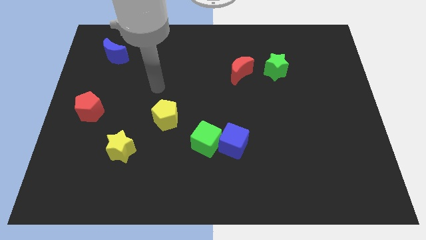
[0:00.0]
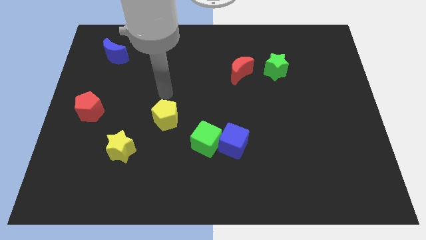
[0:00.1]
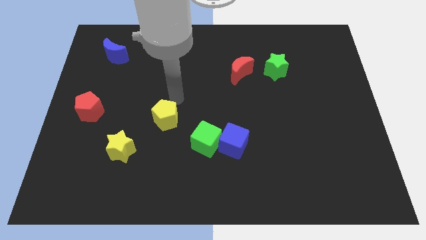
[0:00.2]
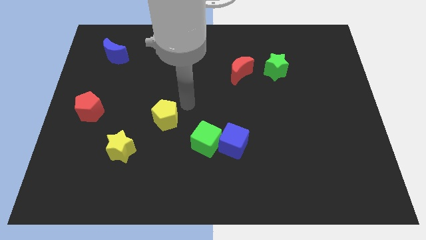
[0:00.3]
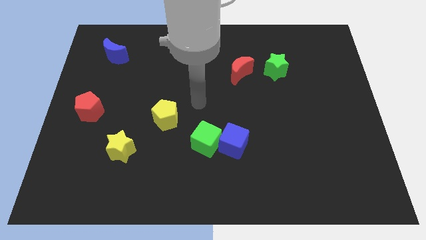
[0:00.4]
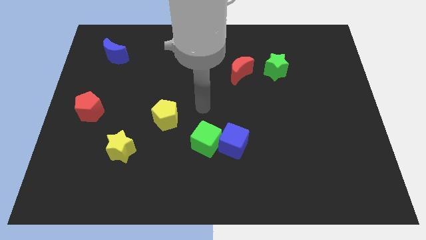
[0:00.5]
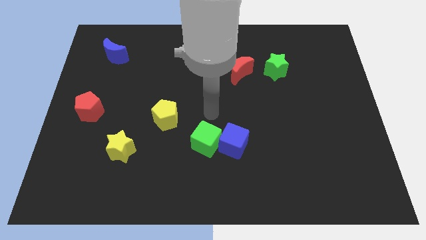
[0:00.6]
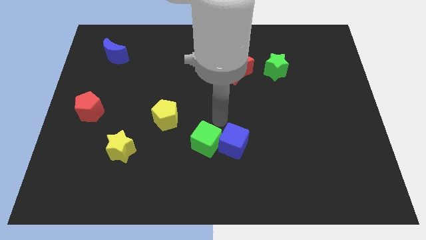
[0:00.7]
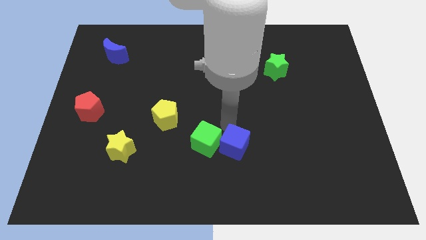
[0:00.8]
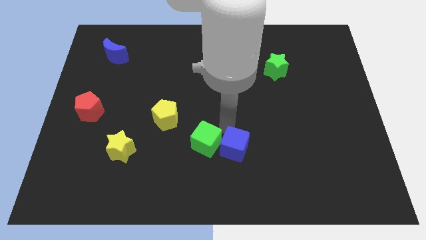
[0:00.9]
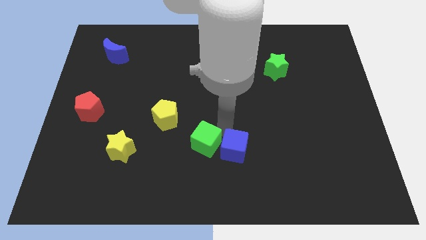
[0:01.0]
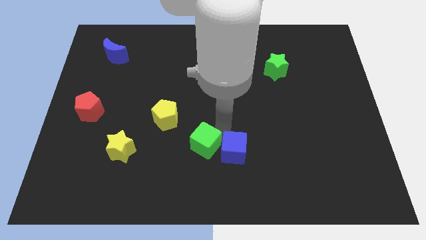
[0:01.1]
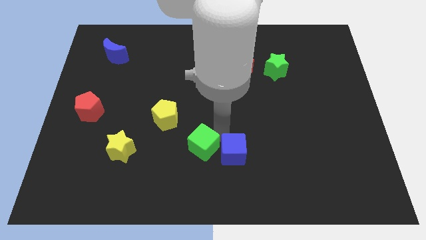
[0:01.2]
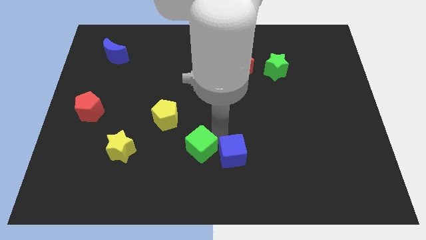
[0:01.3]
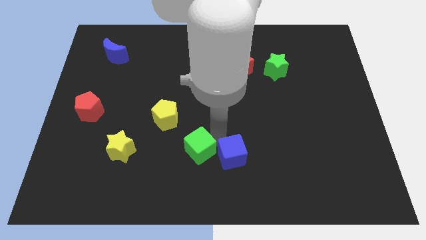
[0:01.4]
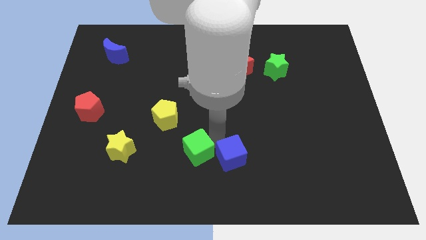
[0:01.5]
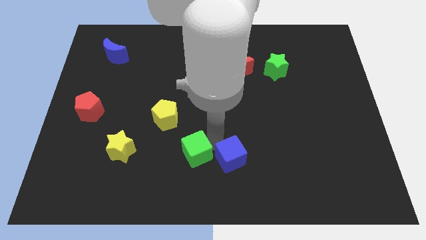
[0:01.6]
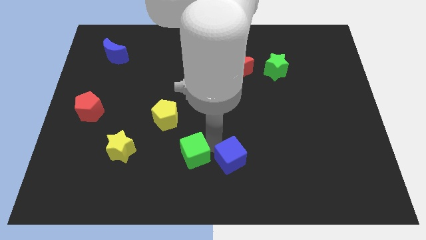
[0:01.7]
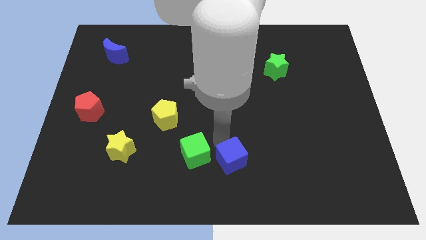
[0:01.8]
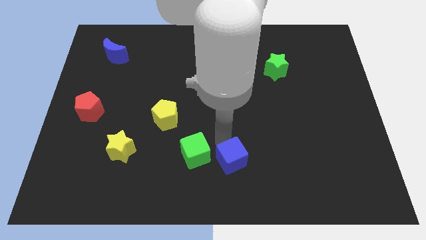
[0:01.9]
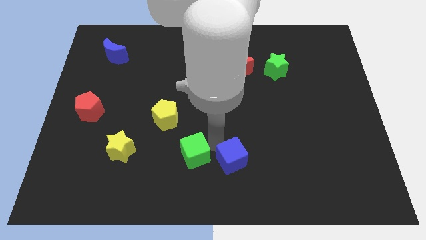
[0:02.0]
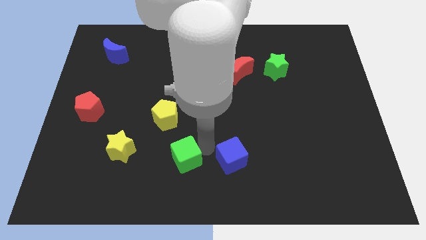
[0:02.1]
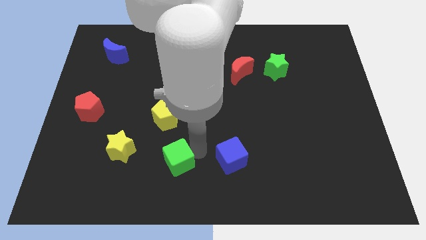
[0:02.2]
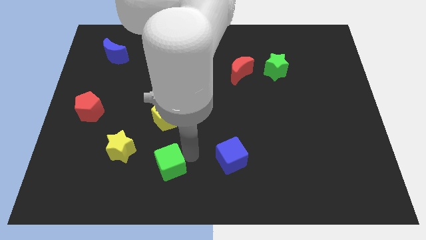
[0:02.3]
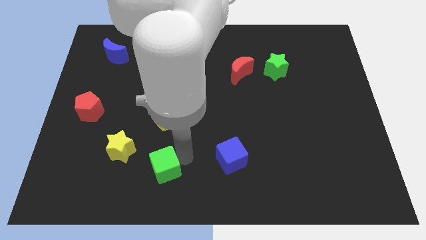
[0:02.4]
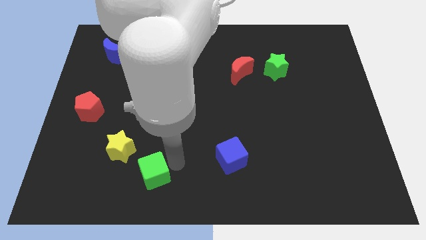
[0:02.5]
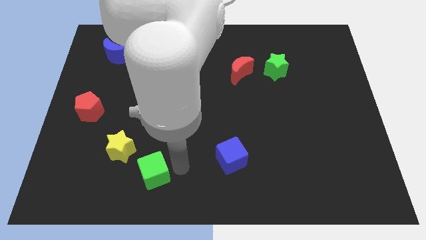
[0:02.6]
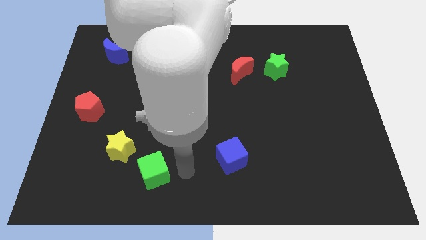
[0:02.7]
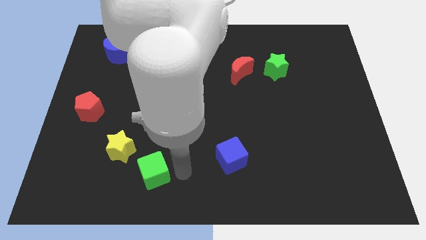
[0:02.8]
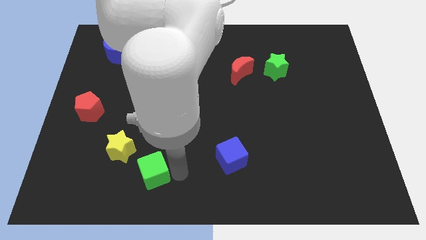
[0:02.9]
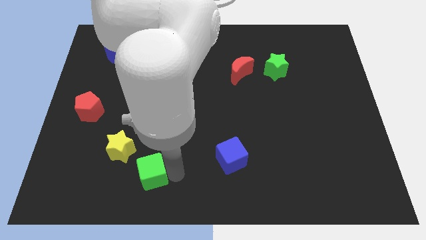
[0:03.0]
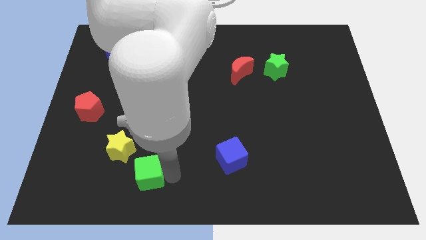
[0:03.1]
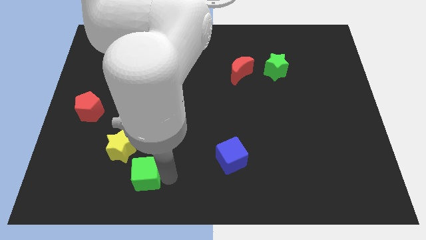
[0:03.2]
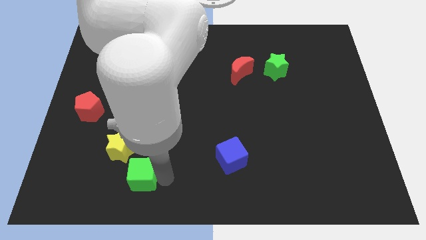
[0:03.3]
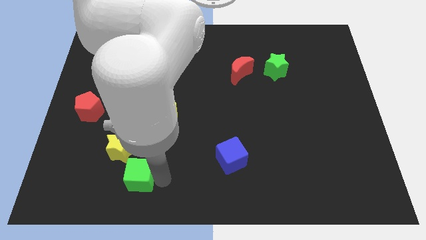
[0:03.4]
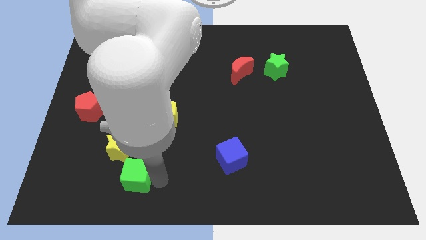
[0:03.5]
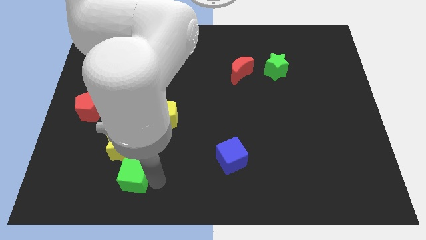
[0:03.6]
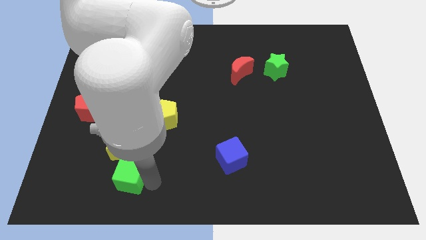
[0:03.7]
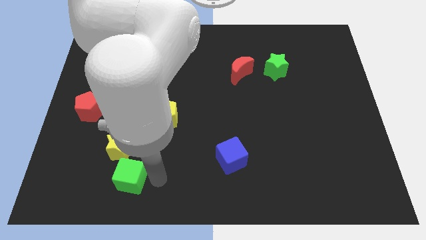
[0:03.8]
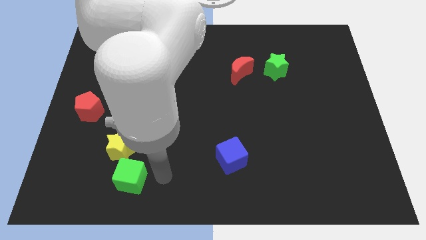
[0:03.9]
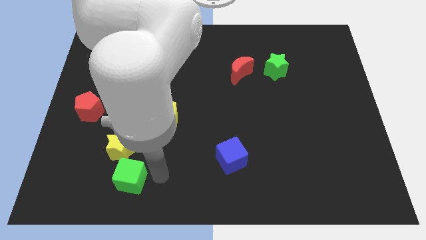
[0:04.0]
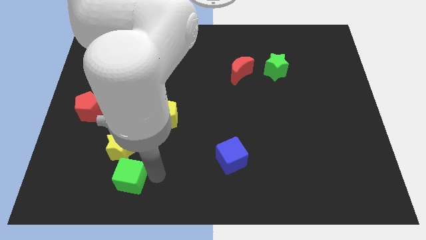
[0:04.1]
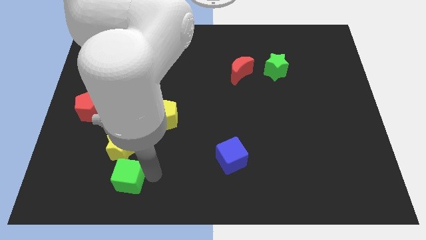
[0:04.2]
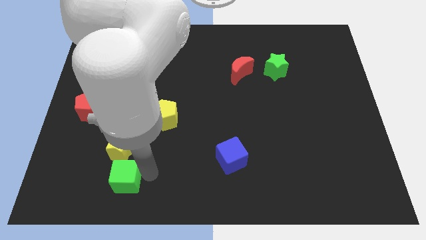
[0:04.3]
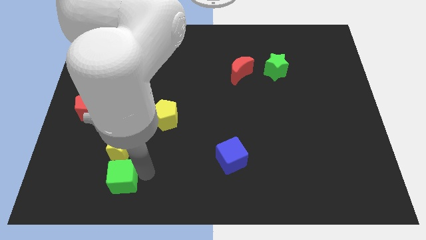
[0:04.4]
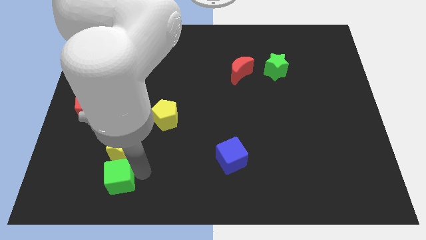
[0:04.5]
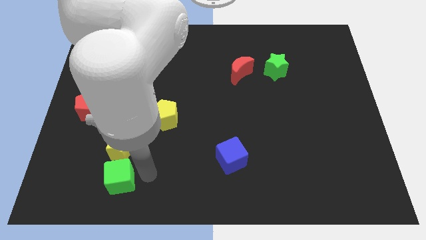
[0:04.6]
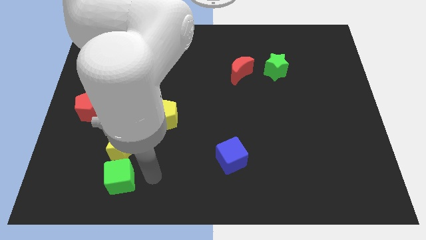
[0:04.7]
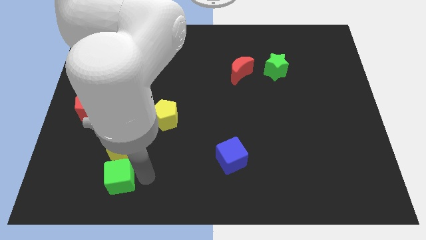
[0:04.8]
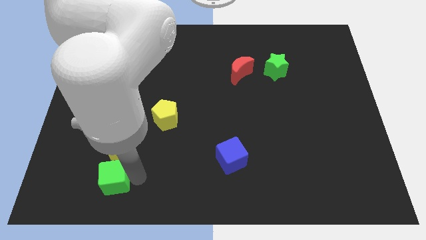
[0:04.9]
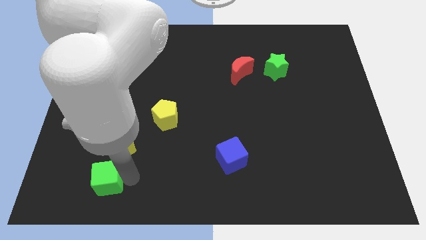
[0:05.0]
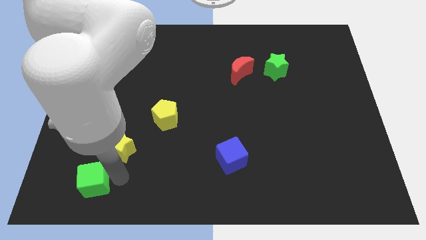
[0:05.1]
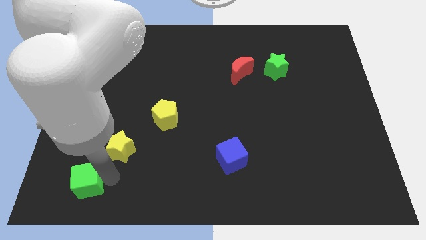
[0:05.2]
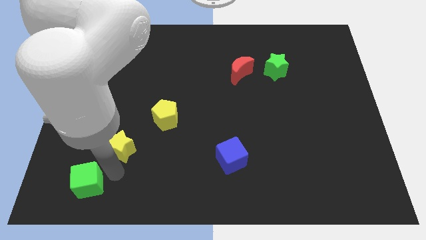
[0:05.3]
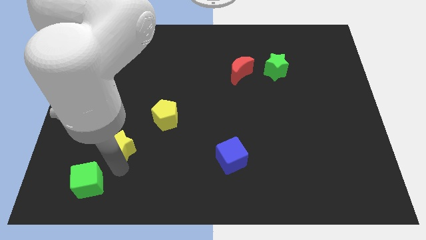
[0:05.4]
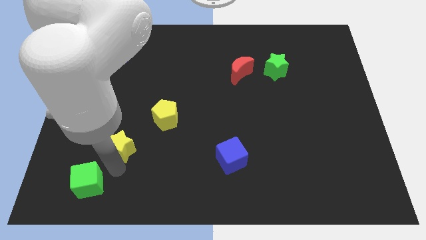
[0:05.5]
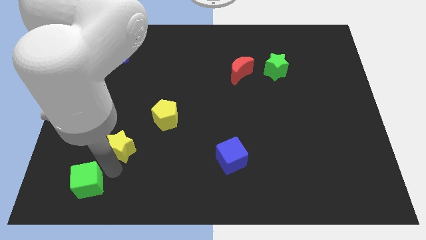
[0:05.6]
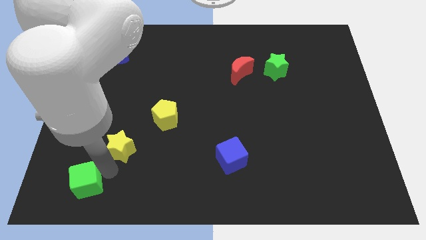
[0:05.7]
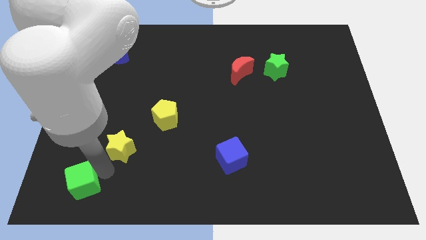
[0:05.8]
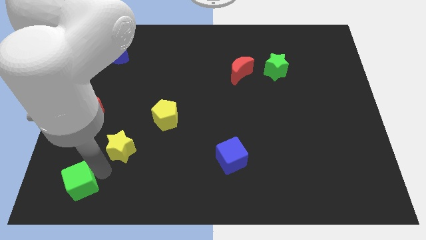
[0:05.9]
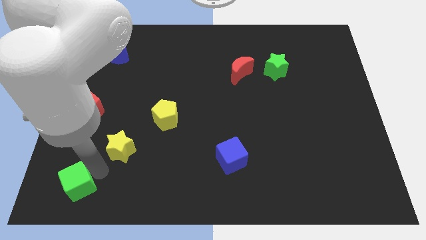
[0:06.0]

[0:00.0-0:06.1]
move the green cube to the bottom left of the board
